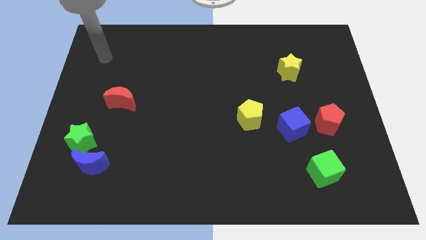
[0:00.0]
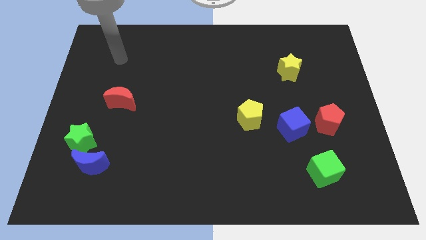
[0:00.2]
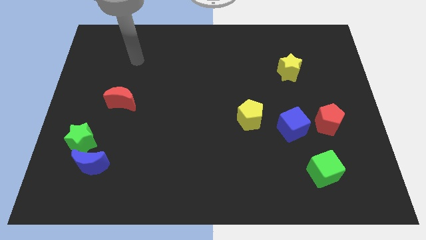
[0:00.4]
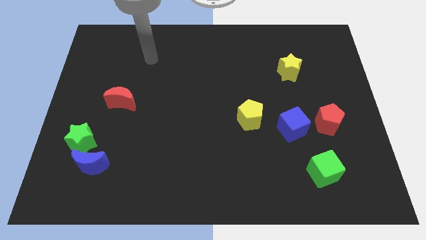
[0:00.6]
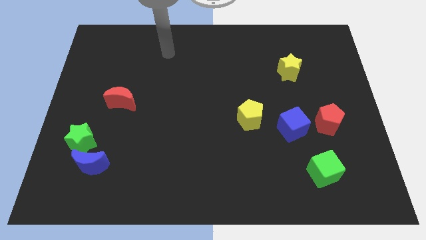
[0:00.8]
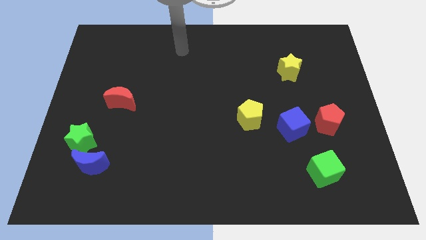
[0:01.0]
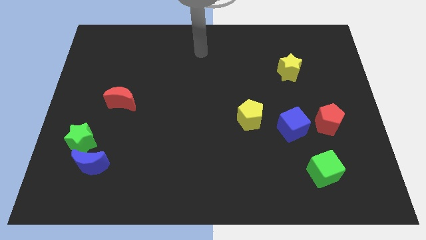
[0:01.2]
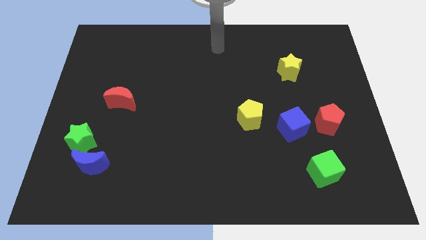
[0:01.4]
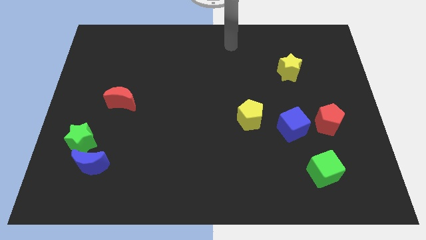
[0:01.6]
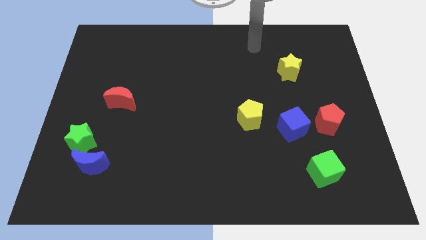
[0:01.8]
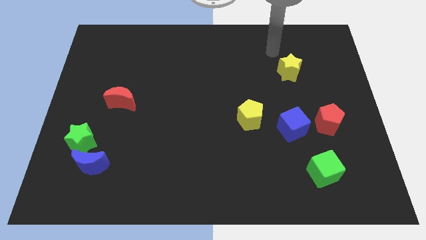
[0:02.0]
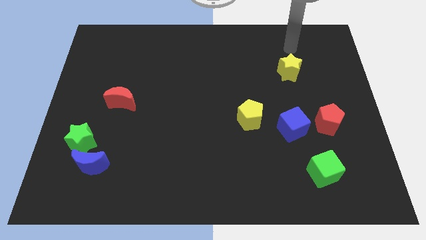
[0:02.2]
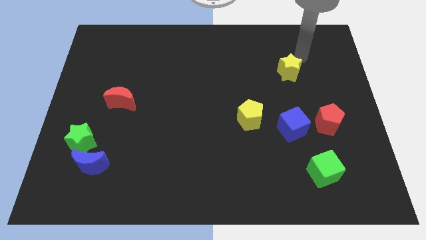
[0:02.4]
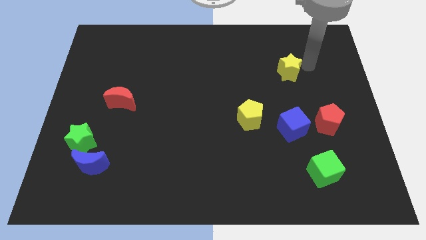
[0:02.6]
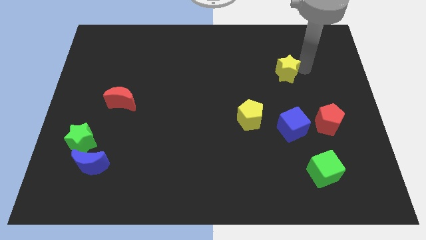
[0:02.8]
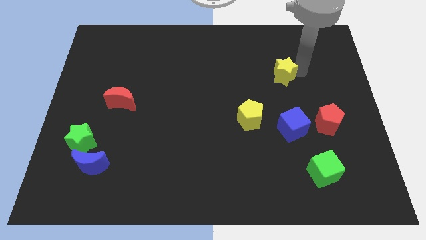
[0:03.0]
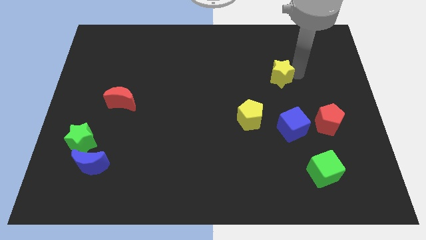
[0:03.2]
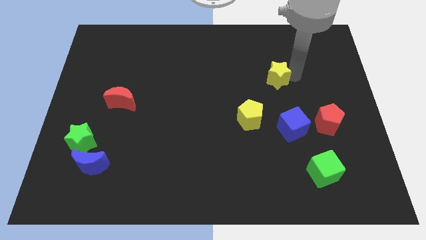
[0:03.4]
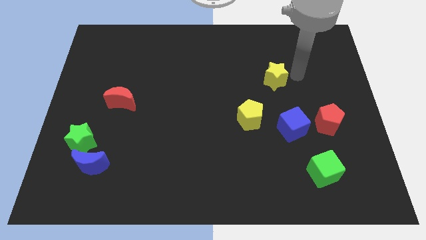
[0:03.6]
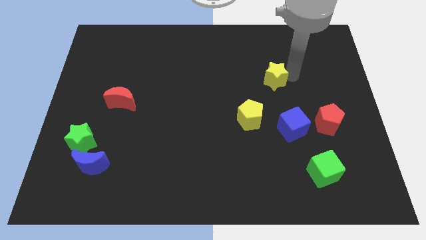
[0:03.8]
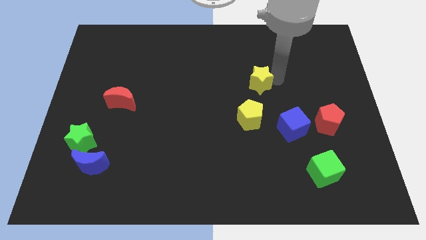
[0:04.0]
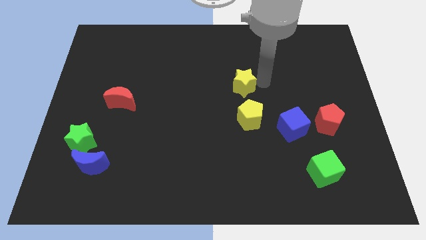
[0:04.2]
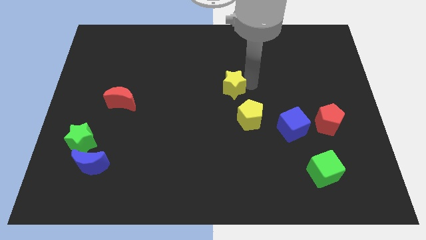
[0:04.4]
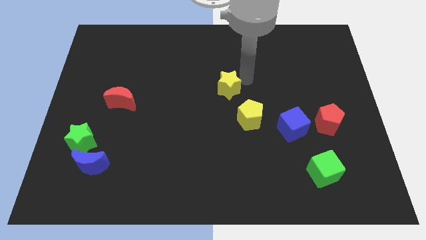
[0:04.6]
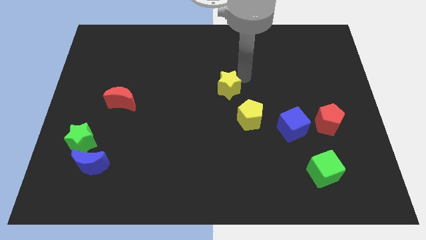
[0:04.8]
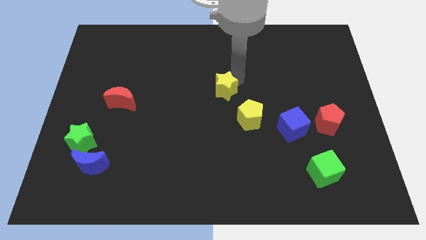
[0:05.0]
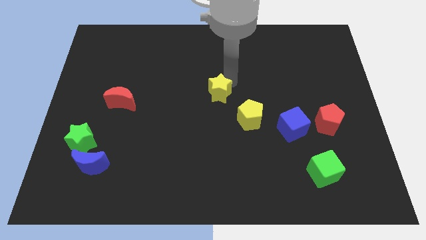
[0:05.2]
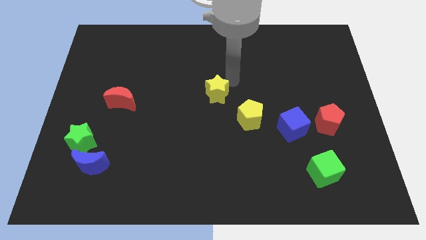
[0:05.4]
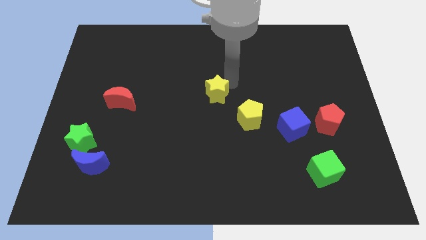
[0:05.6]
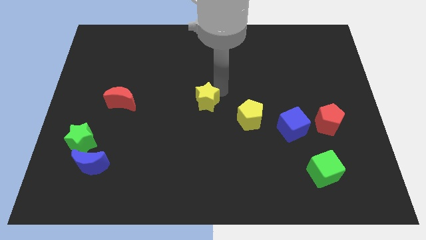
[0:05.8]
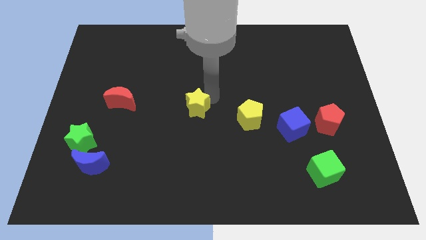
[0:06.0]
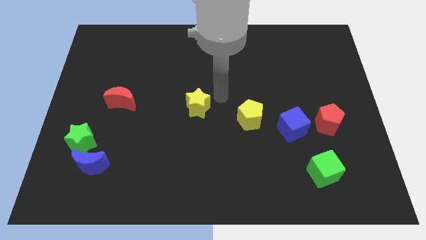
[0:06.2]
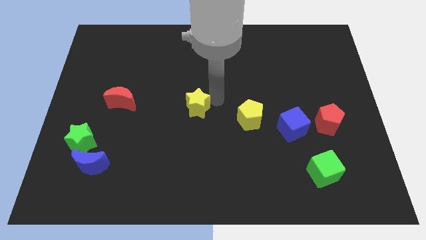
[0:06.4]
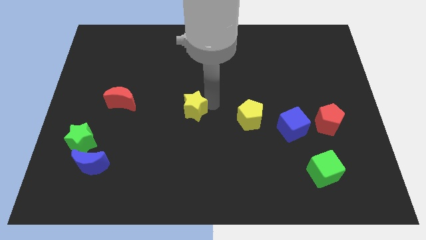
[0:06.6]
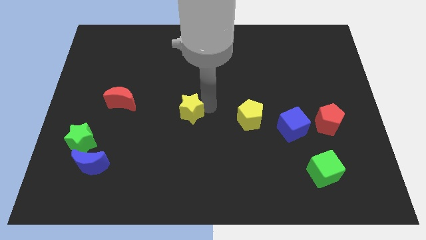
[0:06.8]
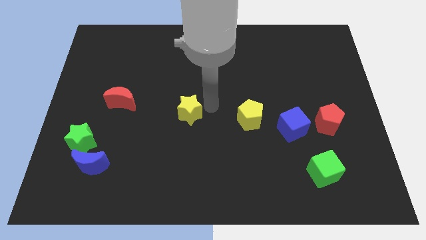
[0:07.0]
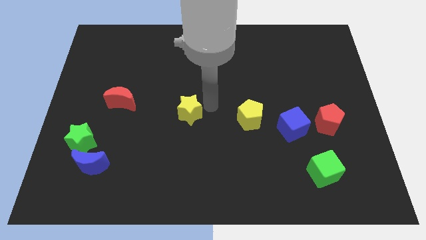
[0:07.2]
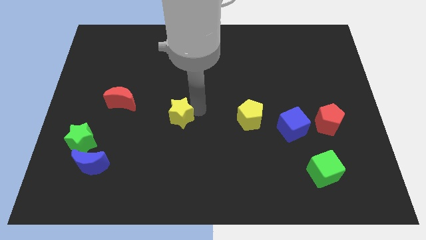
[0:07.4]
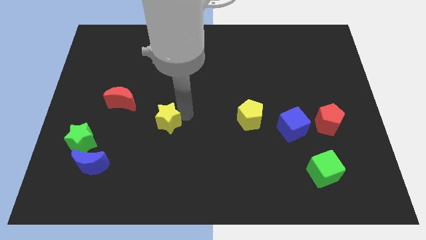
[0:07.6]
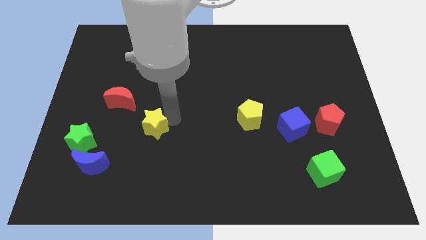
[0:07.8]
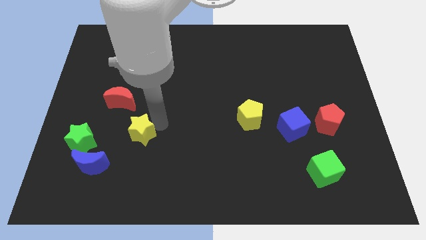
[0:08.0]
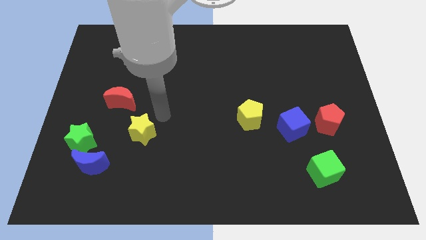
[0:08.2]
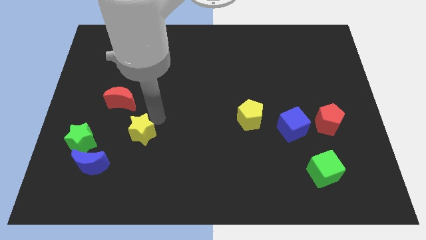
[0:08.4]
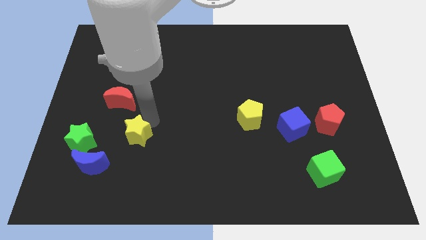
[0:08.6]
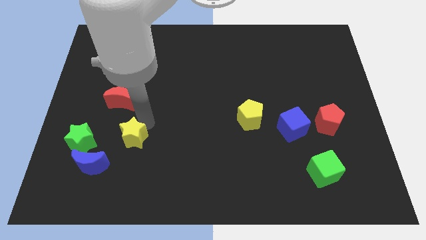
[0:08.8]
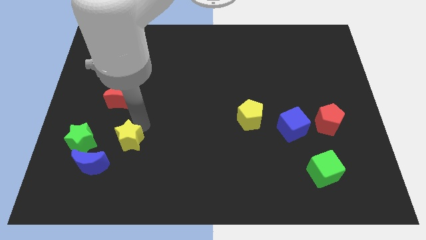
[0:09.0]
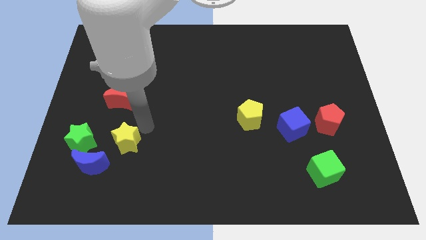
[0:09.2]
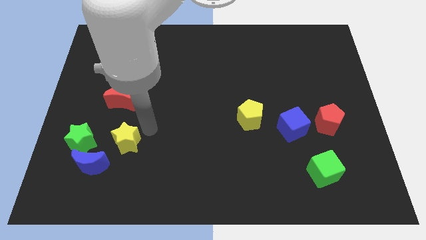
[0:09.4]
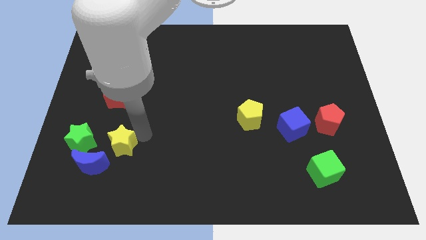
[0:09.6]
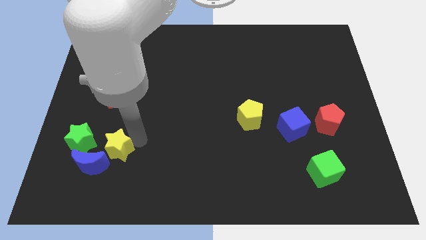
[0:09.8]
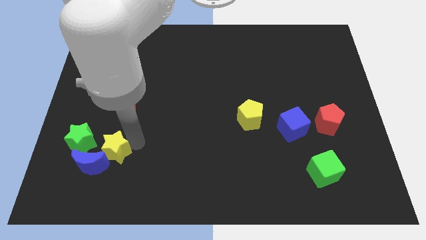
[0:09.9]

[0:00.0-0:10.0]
slide the yellow star next to the blue moon

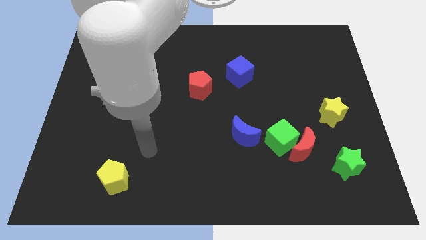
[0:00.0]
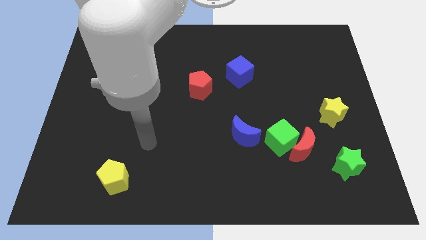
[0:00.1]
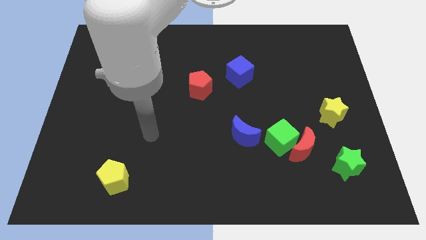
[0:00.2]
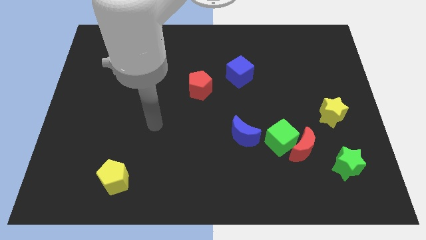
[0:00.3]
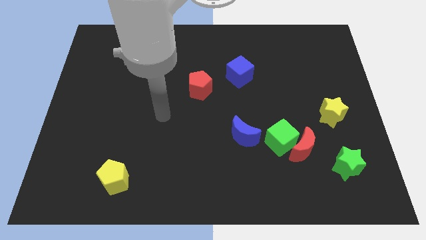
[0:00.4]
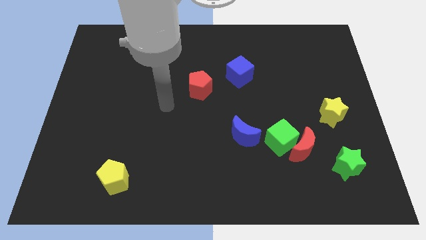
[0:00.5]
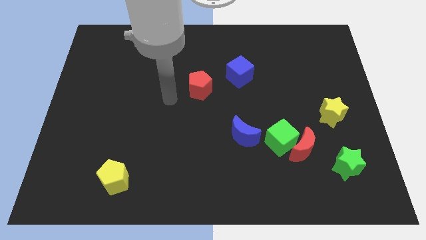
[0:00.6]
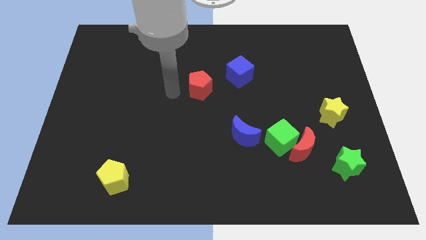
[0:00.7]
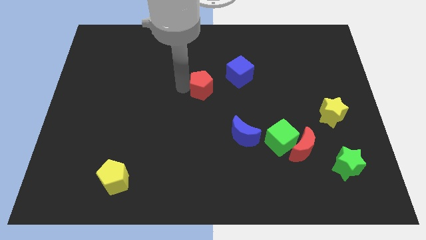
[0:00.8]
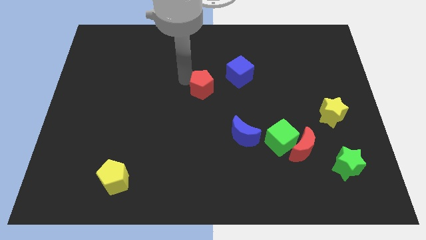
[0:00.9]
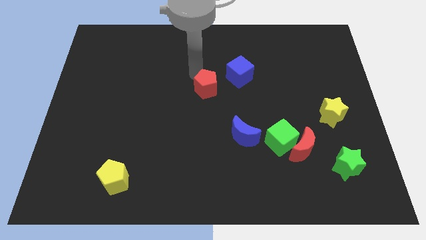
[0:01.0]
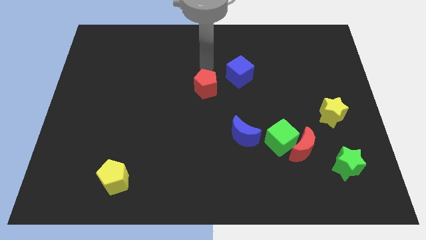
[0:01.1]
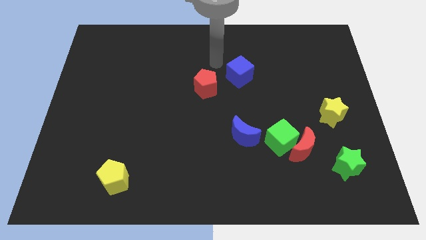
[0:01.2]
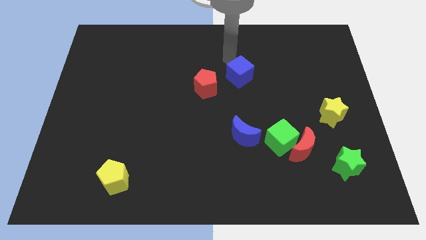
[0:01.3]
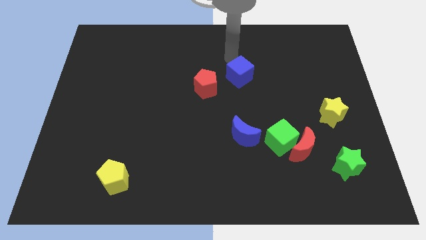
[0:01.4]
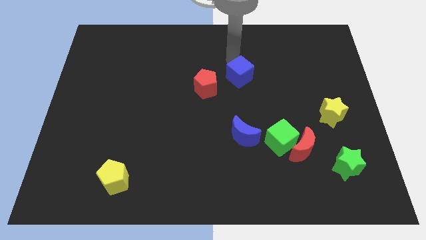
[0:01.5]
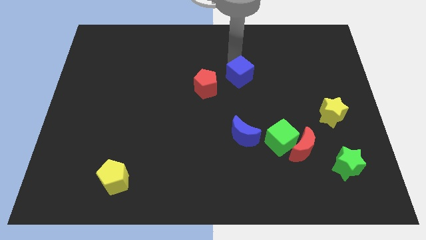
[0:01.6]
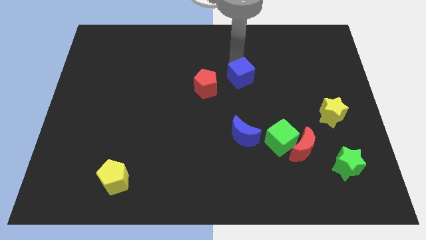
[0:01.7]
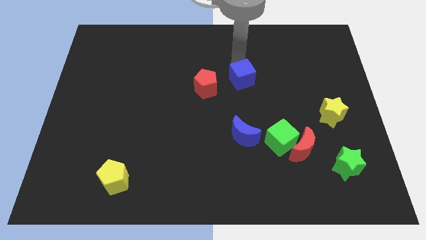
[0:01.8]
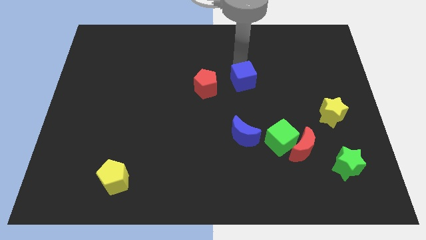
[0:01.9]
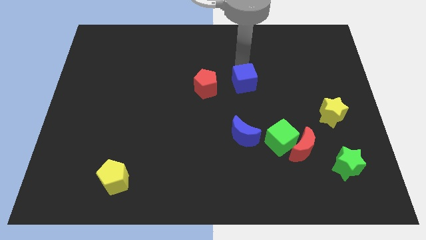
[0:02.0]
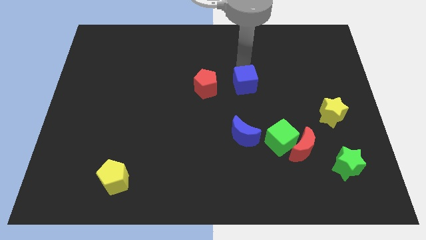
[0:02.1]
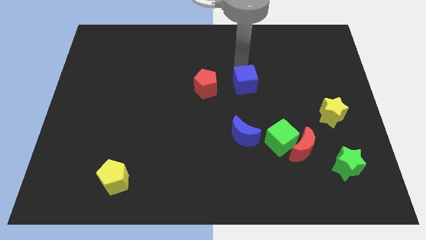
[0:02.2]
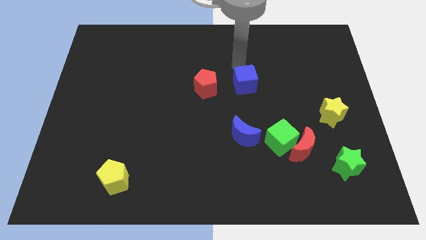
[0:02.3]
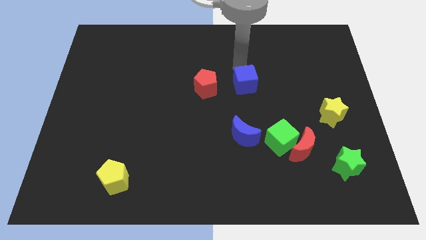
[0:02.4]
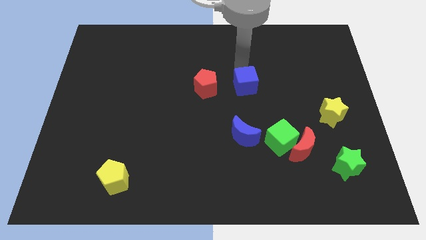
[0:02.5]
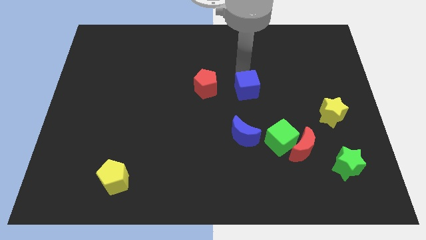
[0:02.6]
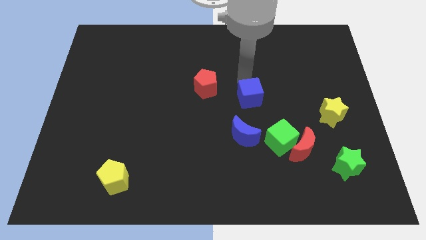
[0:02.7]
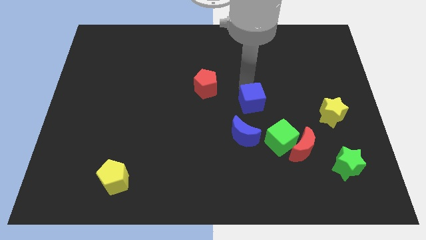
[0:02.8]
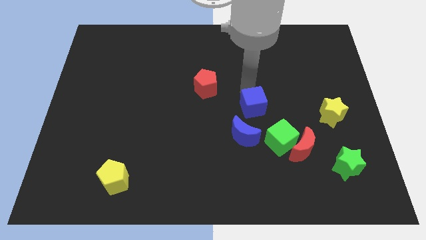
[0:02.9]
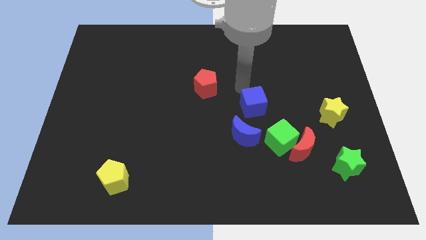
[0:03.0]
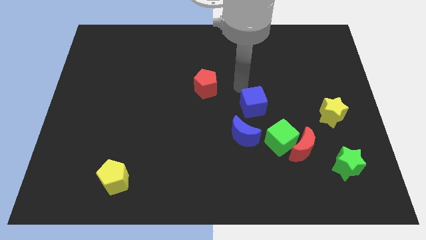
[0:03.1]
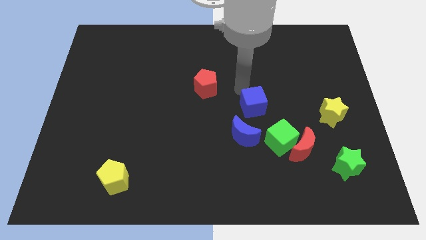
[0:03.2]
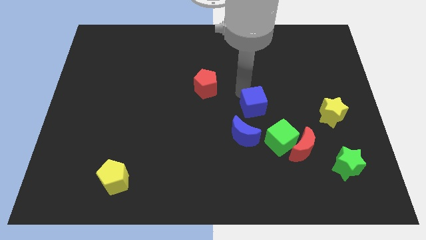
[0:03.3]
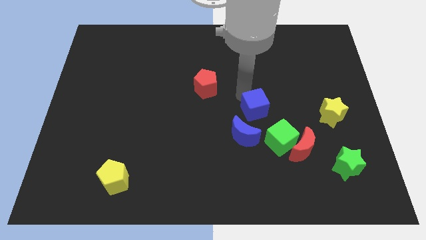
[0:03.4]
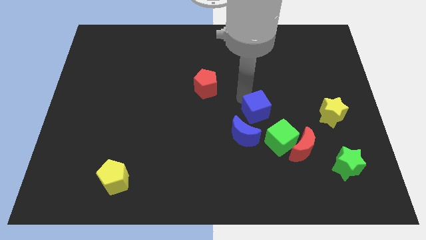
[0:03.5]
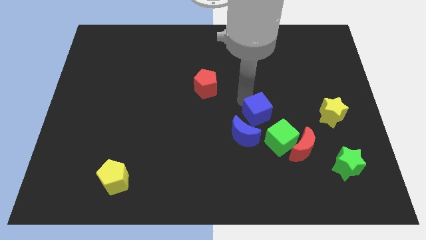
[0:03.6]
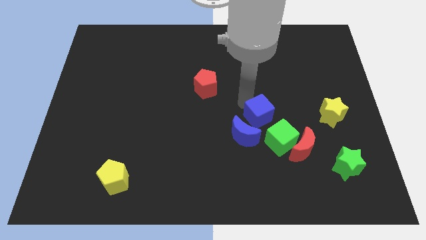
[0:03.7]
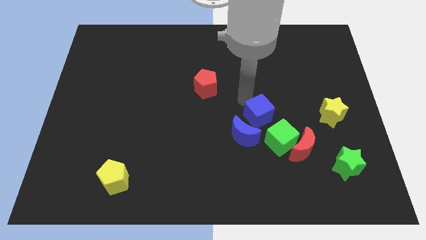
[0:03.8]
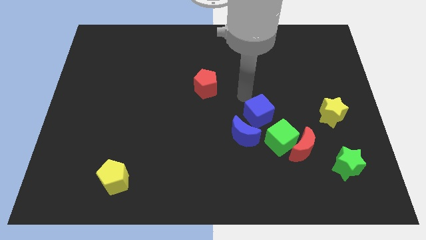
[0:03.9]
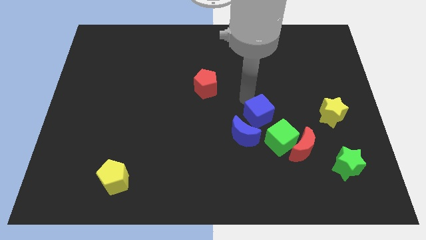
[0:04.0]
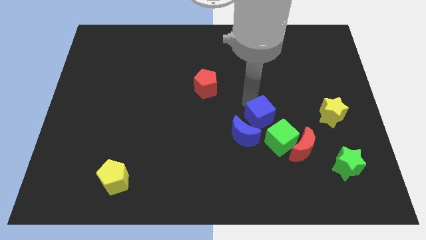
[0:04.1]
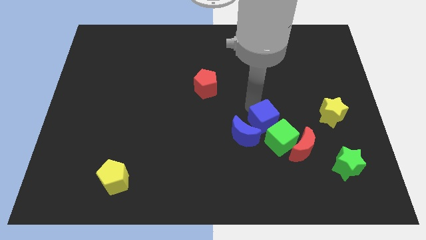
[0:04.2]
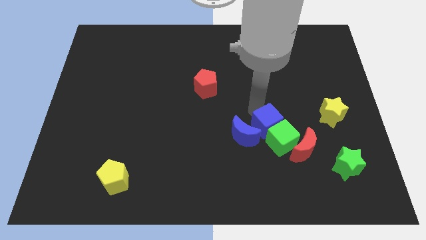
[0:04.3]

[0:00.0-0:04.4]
slide the blue cube close to the green cube
